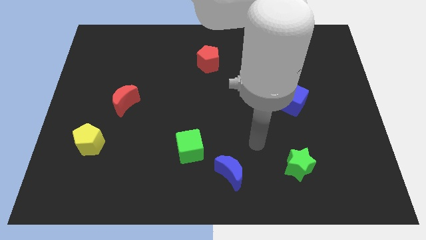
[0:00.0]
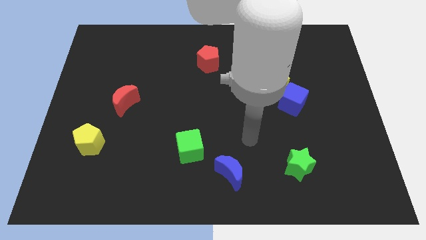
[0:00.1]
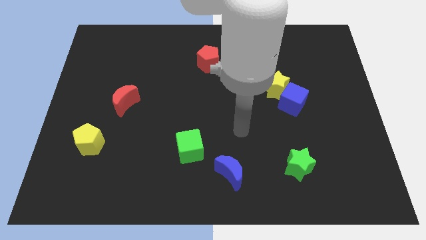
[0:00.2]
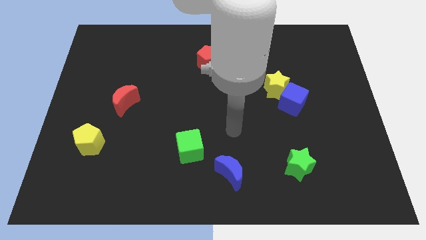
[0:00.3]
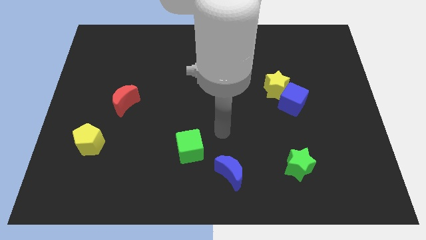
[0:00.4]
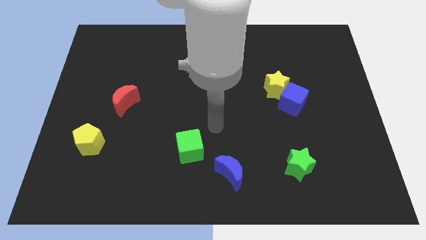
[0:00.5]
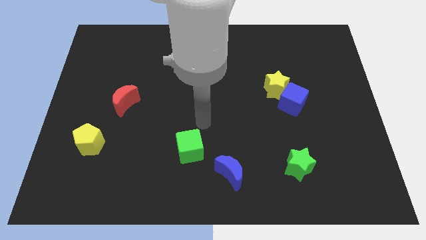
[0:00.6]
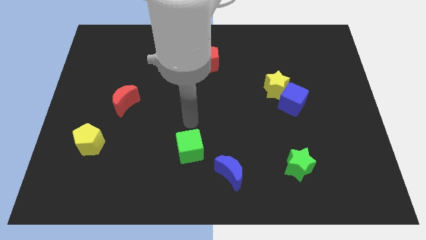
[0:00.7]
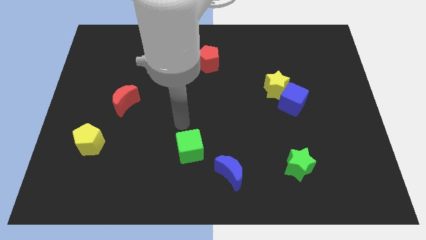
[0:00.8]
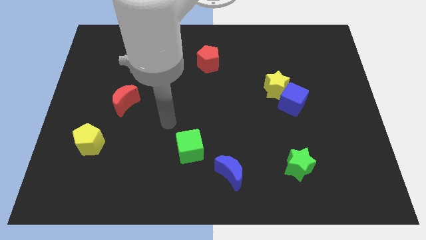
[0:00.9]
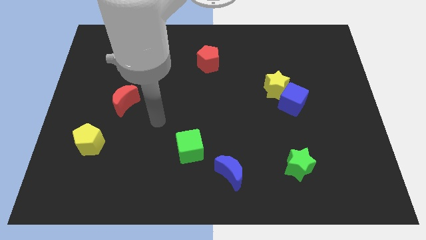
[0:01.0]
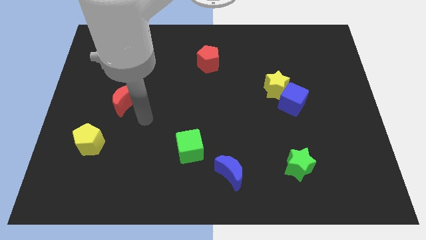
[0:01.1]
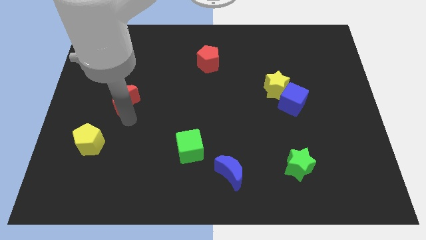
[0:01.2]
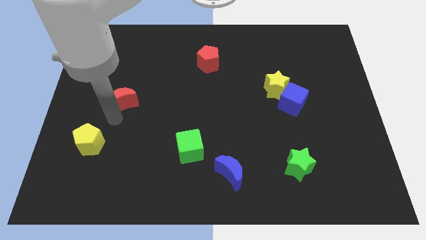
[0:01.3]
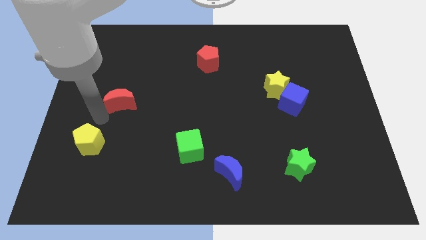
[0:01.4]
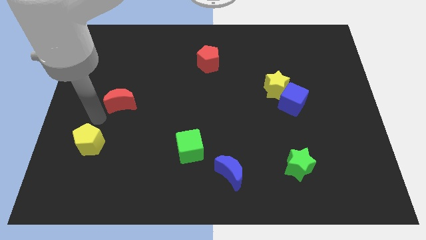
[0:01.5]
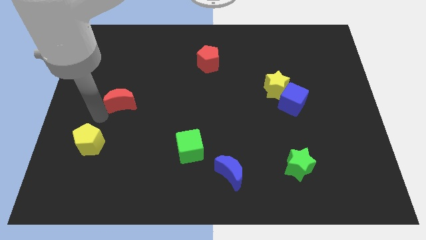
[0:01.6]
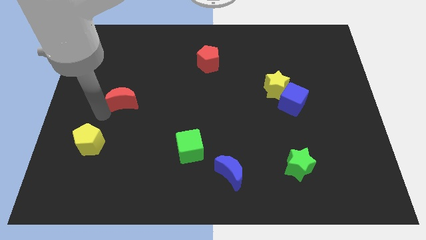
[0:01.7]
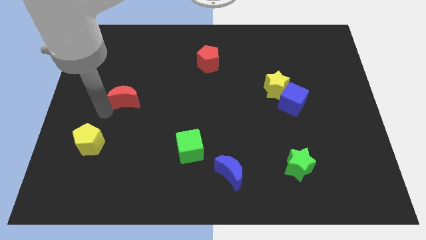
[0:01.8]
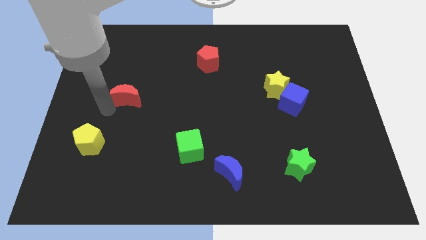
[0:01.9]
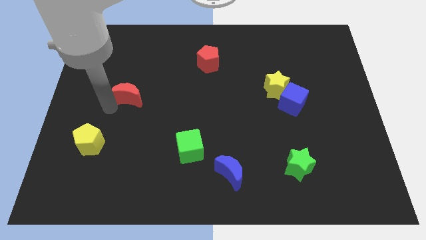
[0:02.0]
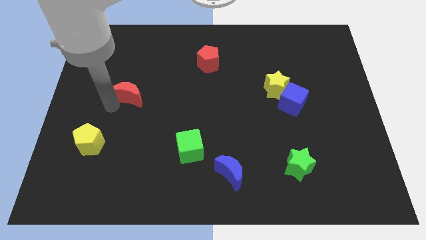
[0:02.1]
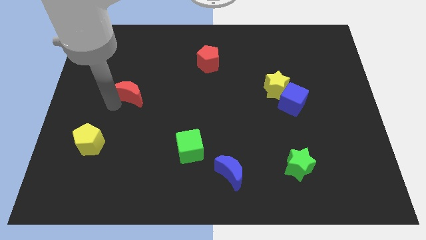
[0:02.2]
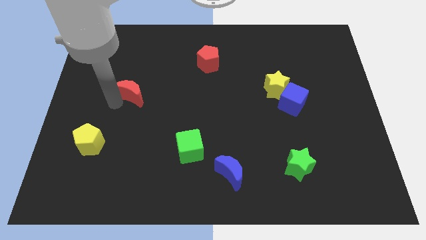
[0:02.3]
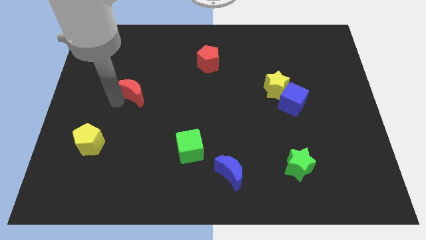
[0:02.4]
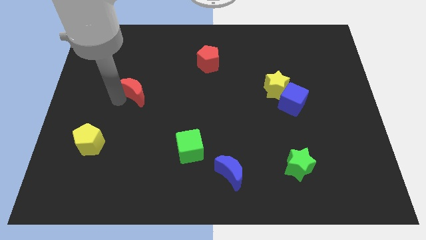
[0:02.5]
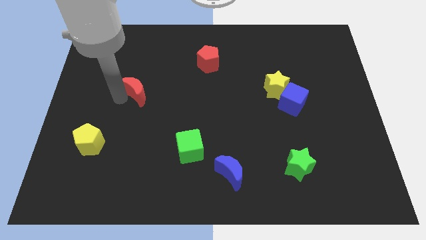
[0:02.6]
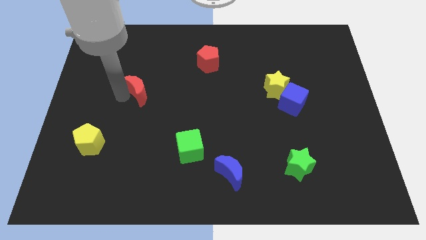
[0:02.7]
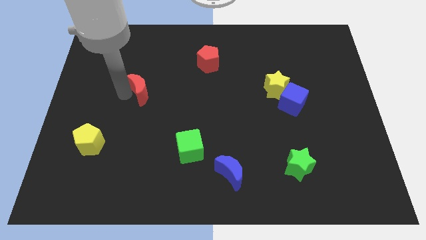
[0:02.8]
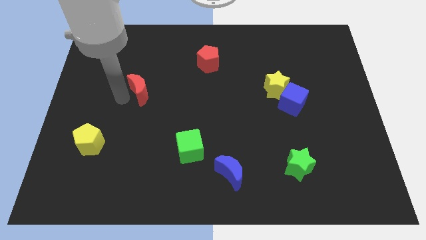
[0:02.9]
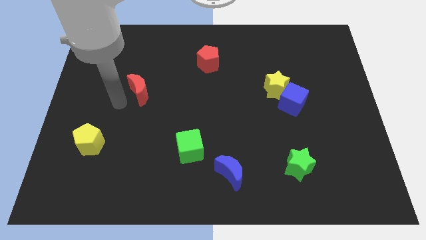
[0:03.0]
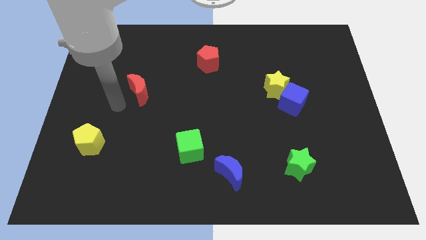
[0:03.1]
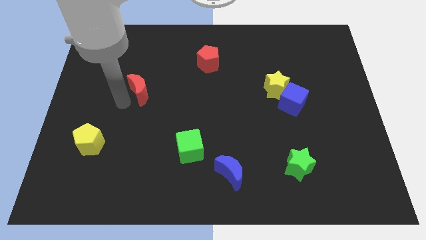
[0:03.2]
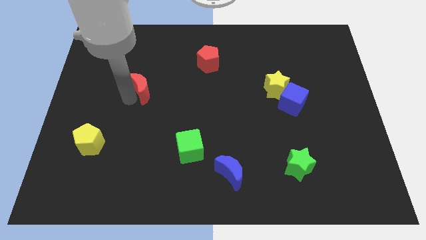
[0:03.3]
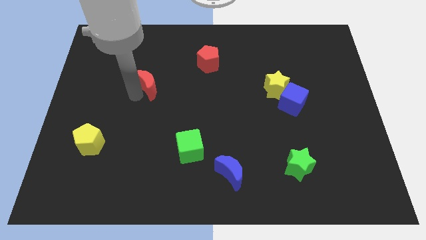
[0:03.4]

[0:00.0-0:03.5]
slightly move the red moon diagonally up and right

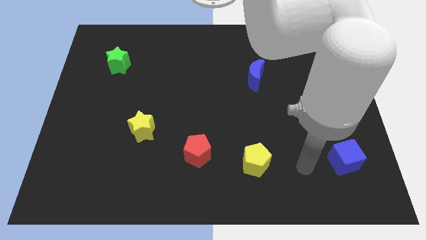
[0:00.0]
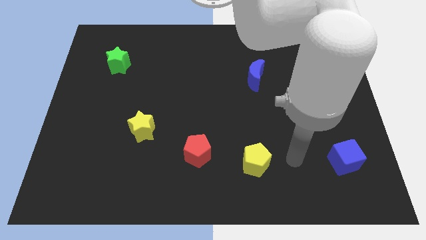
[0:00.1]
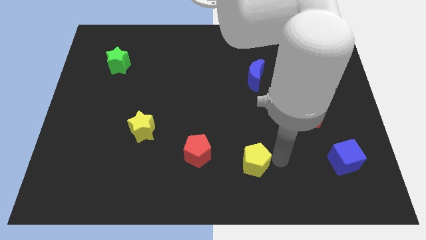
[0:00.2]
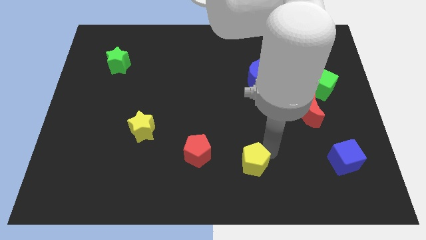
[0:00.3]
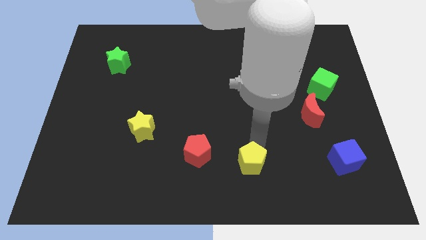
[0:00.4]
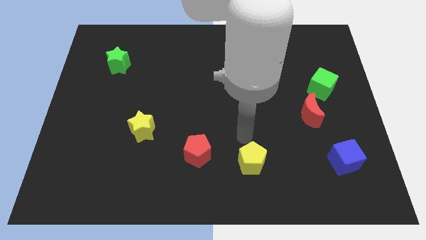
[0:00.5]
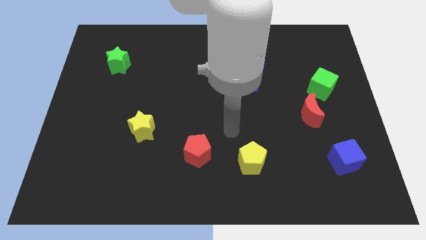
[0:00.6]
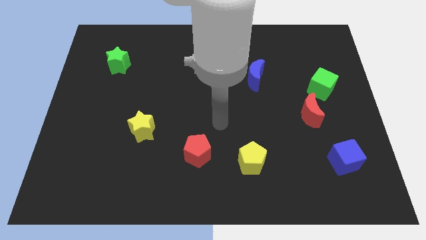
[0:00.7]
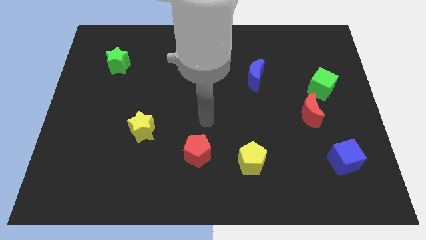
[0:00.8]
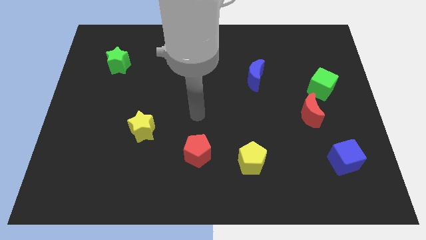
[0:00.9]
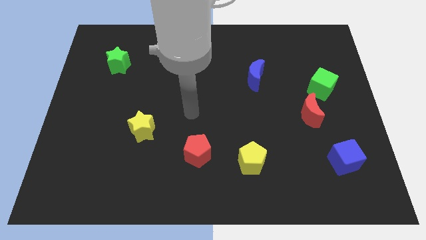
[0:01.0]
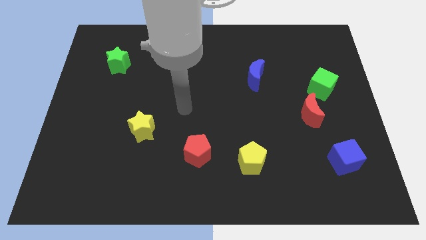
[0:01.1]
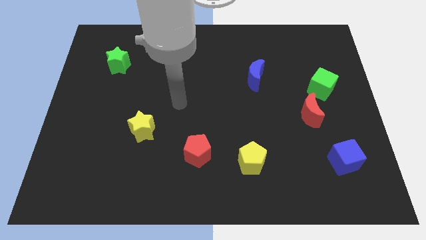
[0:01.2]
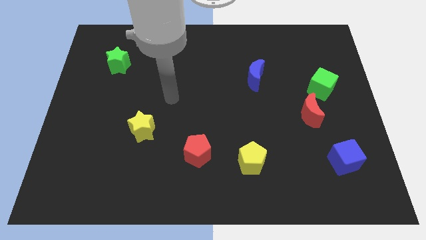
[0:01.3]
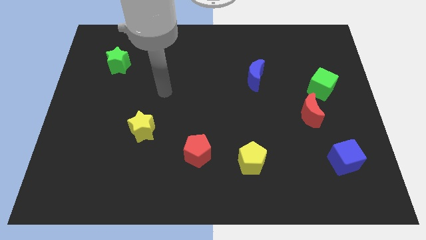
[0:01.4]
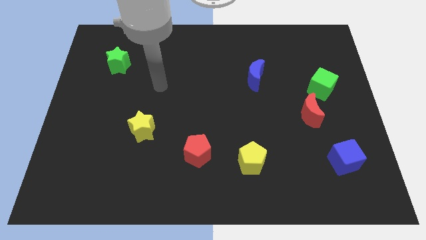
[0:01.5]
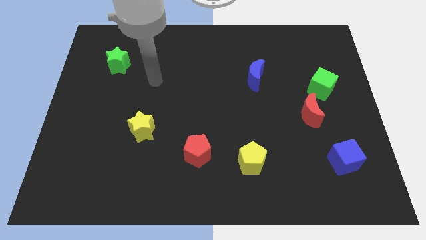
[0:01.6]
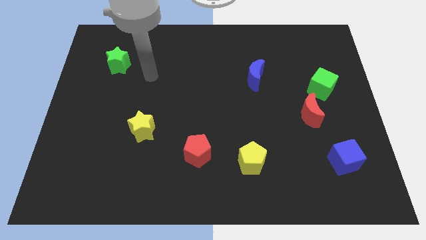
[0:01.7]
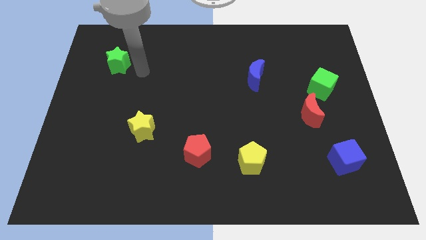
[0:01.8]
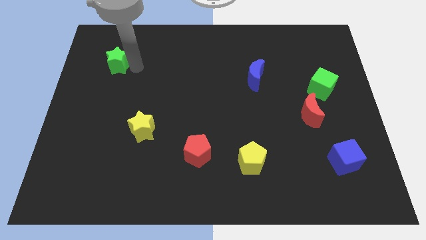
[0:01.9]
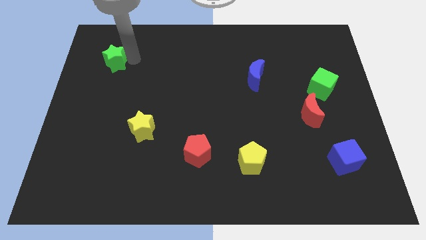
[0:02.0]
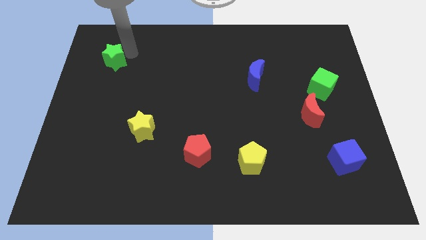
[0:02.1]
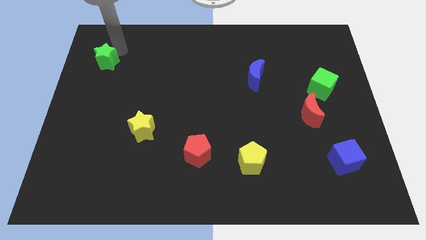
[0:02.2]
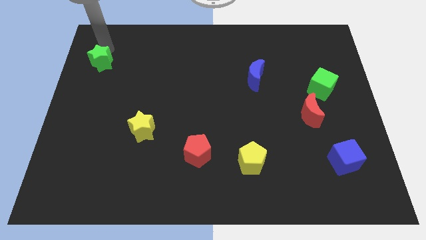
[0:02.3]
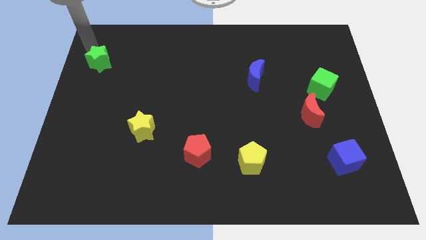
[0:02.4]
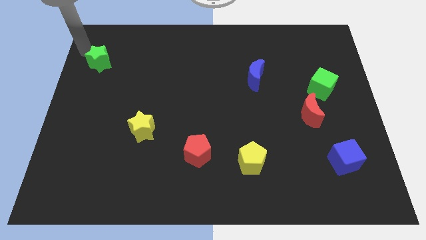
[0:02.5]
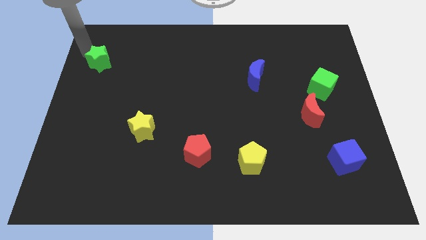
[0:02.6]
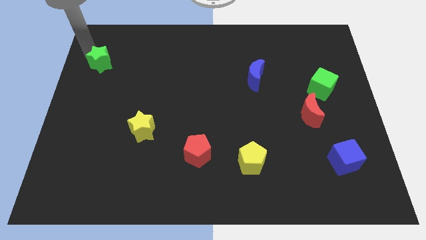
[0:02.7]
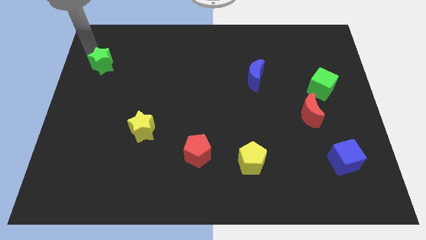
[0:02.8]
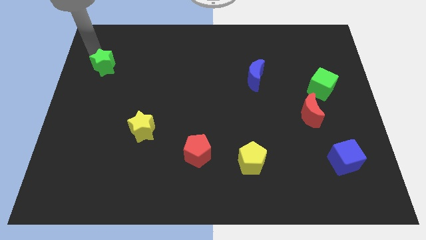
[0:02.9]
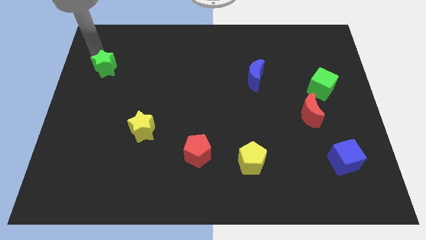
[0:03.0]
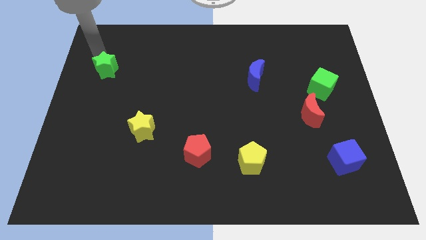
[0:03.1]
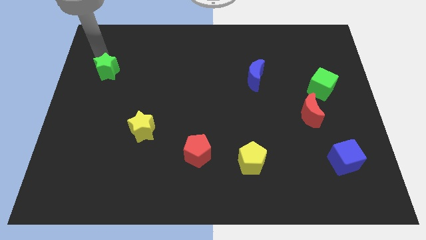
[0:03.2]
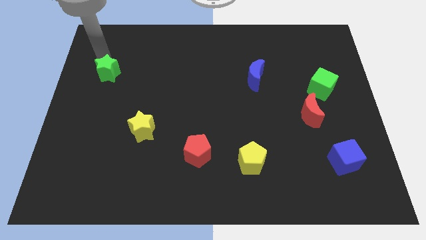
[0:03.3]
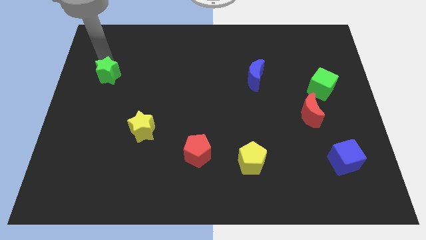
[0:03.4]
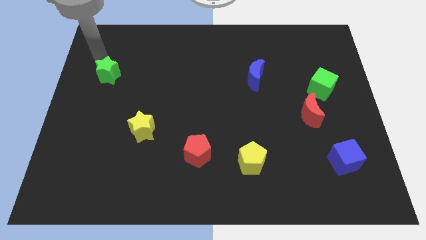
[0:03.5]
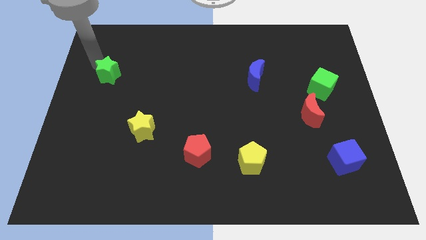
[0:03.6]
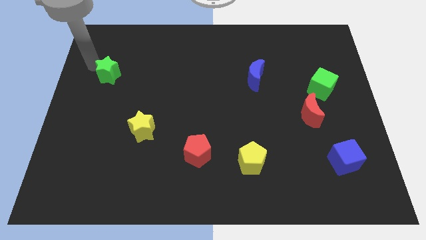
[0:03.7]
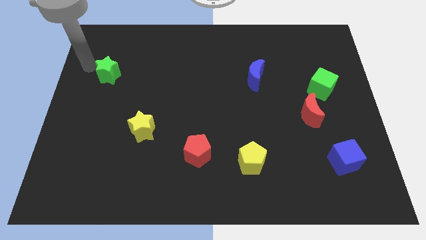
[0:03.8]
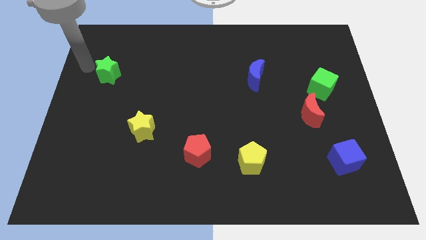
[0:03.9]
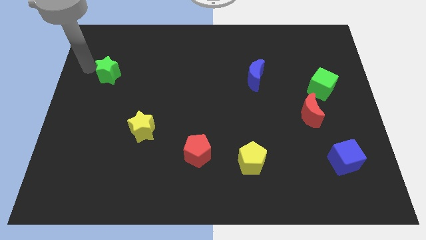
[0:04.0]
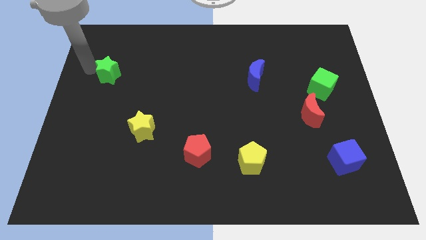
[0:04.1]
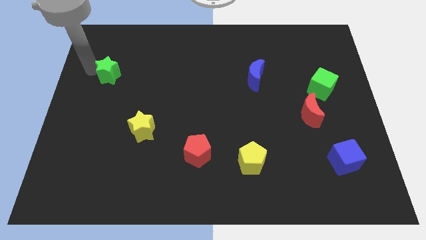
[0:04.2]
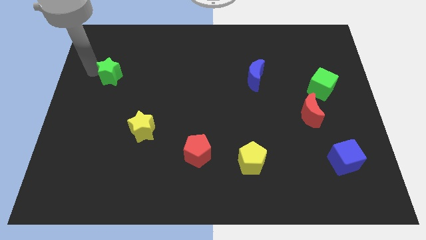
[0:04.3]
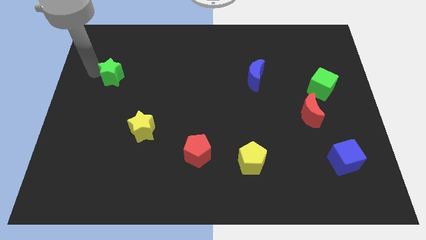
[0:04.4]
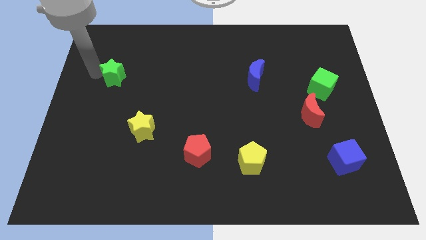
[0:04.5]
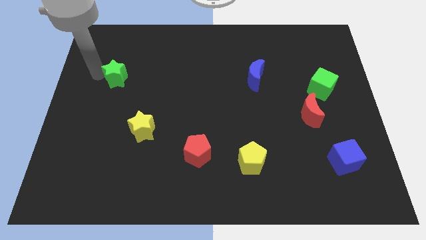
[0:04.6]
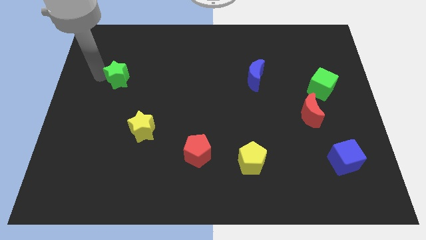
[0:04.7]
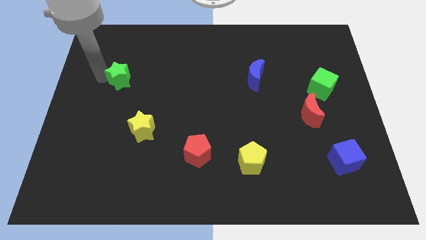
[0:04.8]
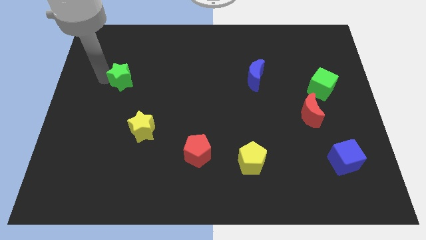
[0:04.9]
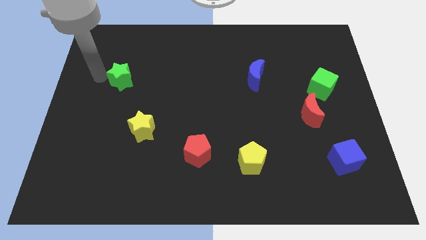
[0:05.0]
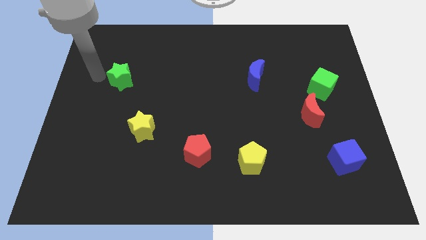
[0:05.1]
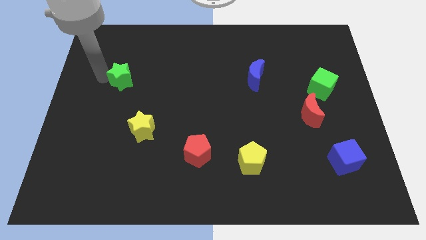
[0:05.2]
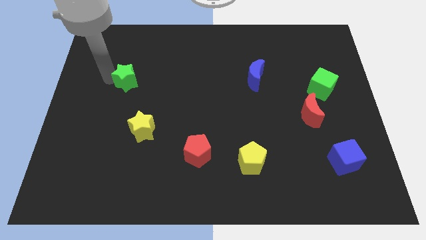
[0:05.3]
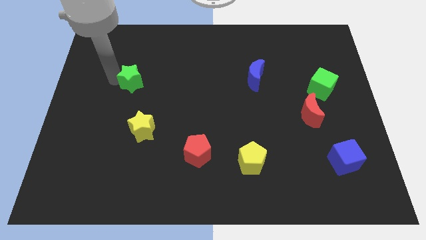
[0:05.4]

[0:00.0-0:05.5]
slightly move the green star down and to the right
